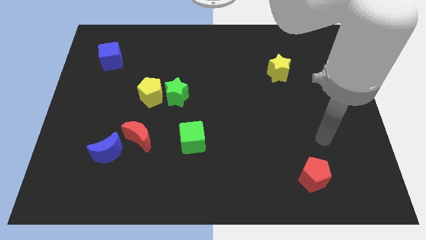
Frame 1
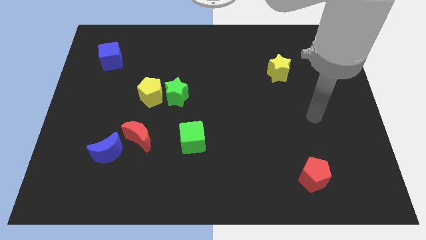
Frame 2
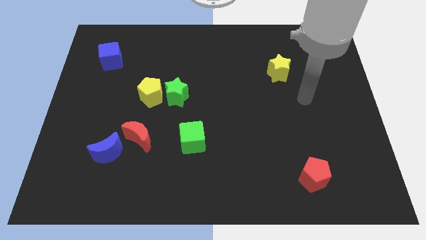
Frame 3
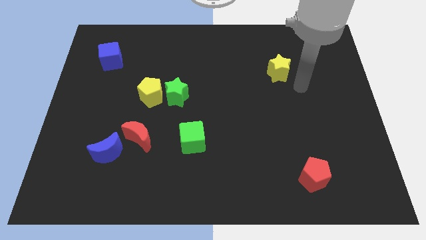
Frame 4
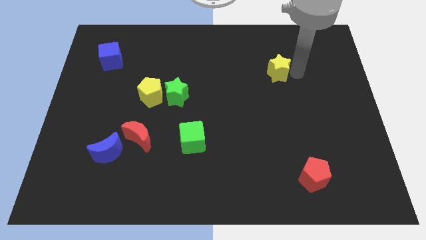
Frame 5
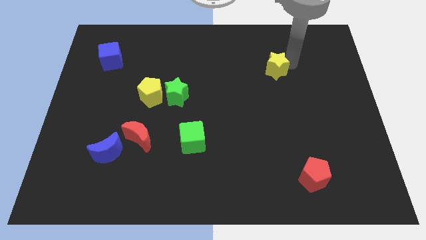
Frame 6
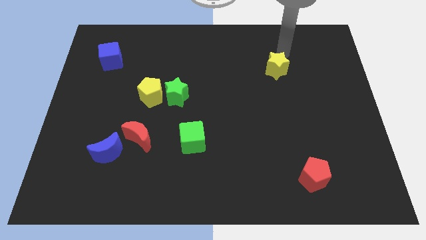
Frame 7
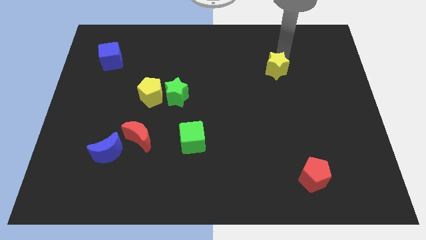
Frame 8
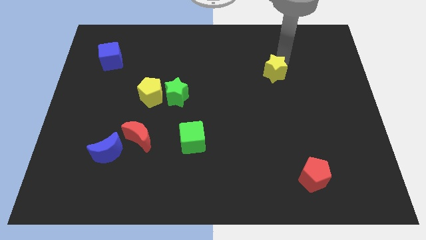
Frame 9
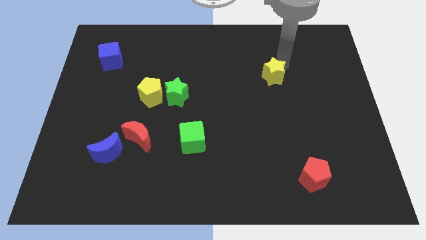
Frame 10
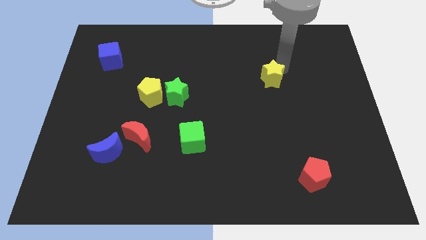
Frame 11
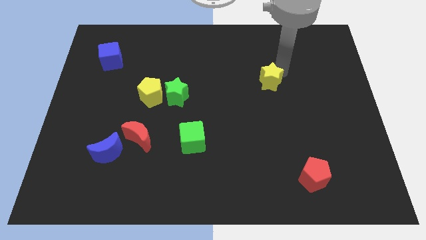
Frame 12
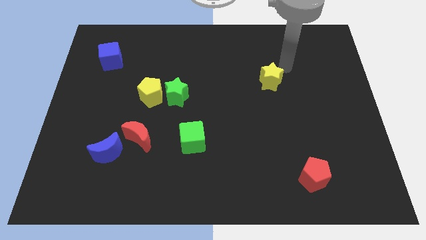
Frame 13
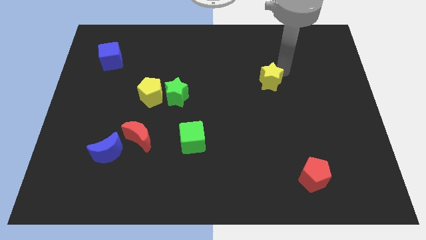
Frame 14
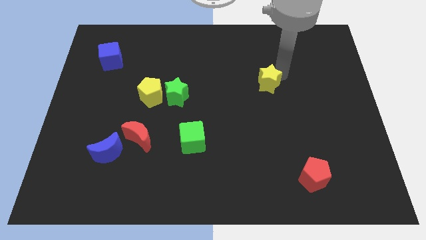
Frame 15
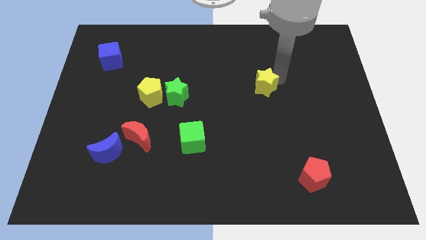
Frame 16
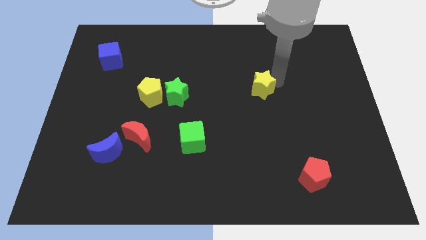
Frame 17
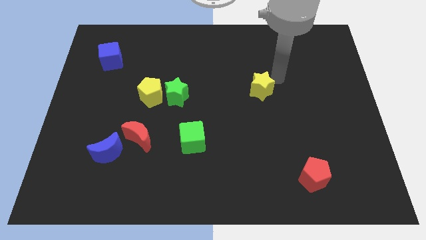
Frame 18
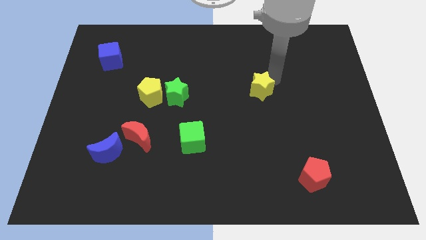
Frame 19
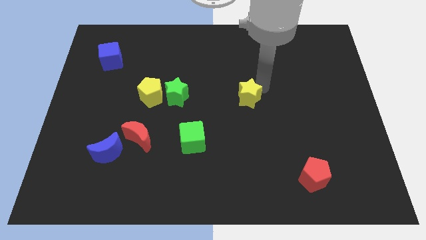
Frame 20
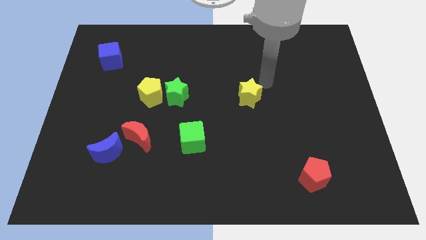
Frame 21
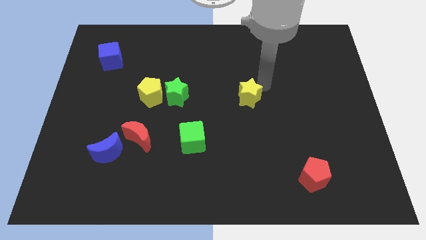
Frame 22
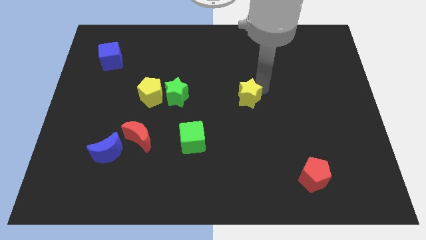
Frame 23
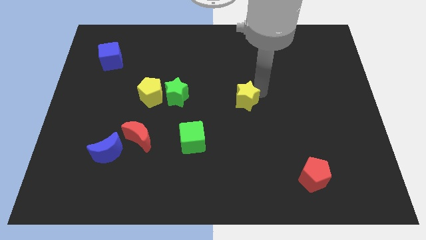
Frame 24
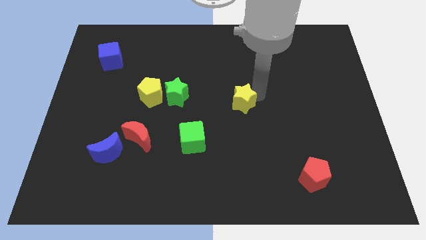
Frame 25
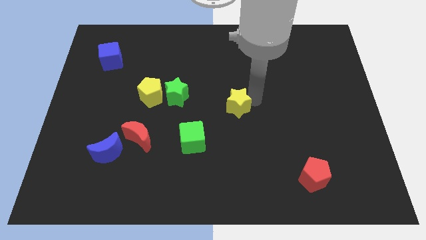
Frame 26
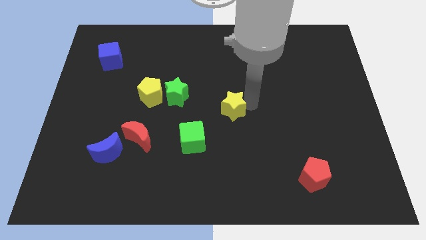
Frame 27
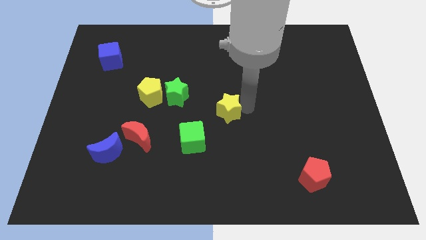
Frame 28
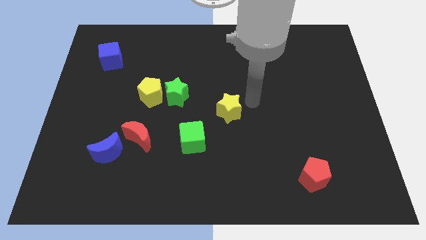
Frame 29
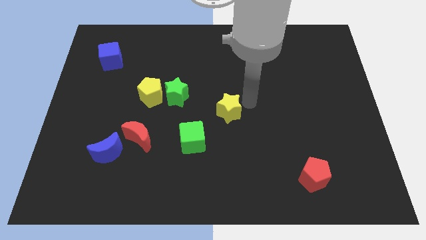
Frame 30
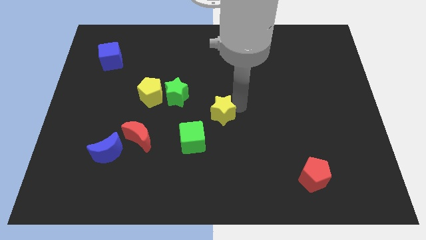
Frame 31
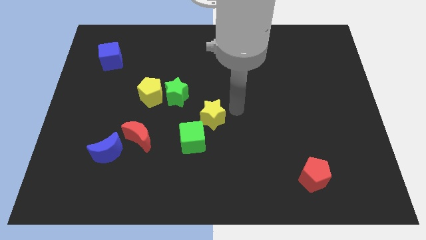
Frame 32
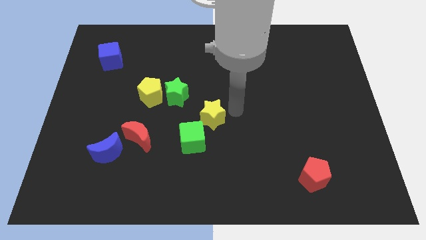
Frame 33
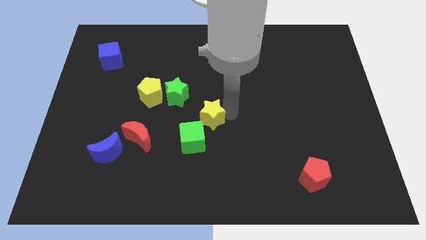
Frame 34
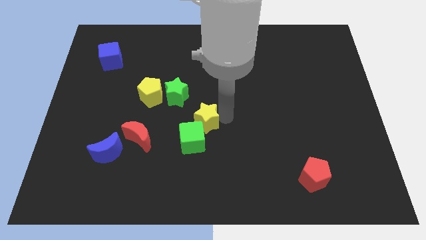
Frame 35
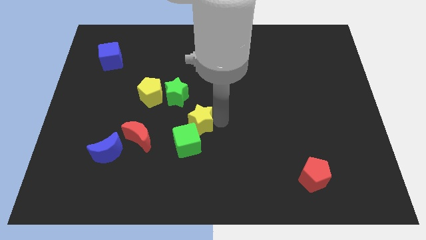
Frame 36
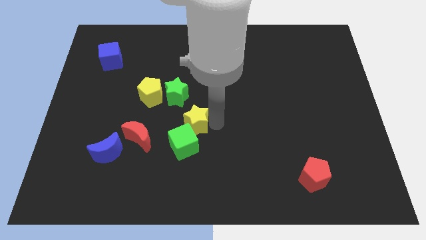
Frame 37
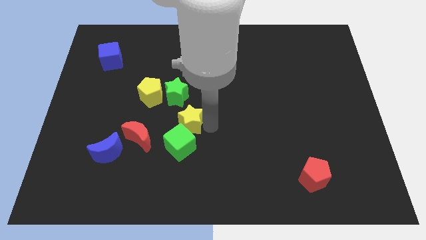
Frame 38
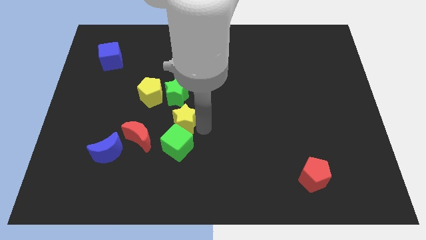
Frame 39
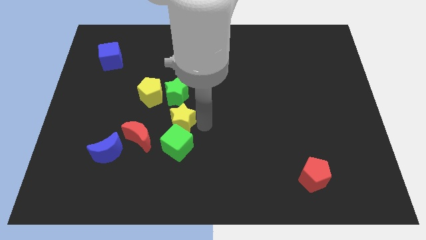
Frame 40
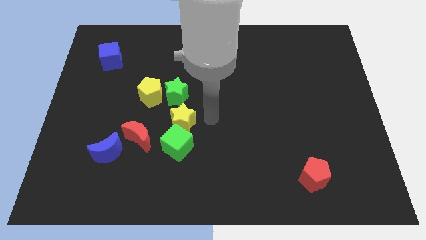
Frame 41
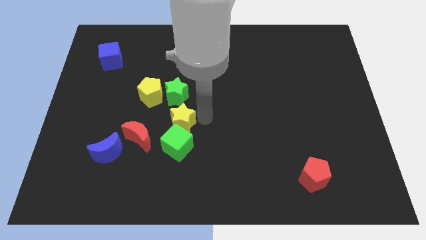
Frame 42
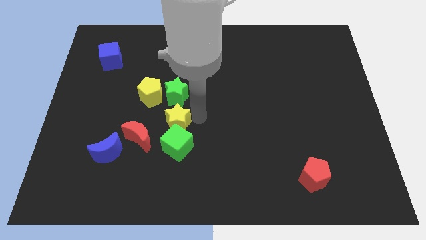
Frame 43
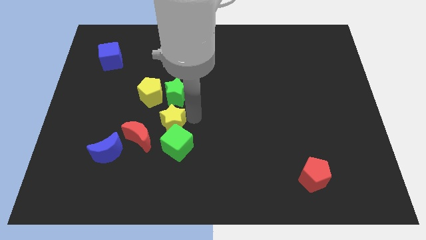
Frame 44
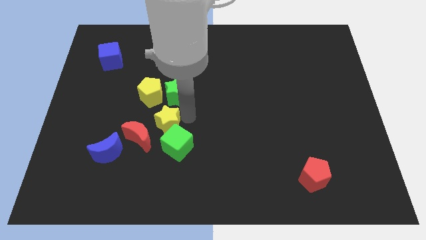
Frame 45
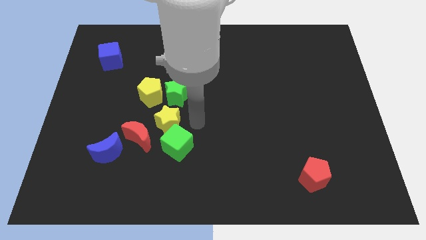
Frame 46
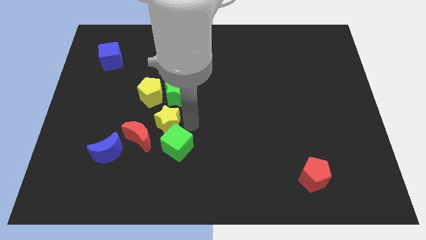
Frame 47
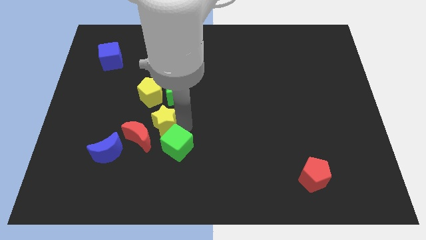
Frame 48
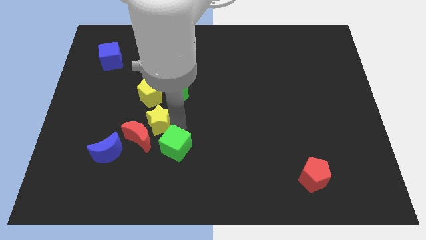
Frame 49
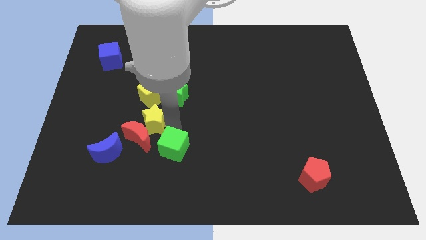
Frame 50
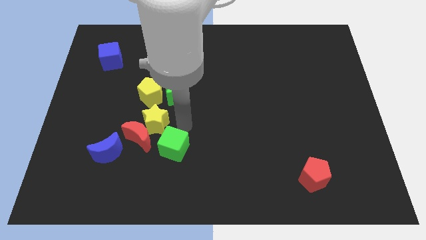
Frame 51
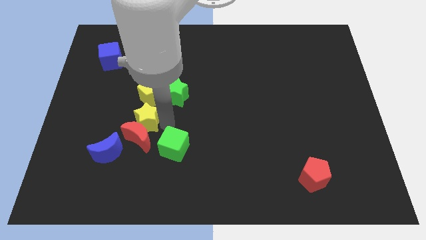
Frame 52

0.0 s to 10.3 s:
put the yellow star to the top left side of the red moon

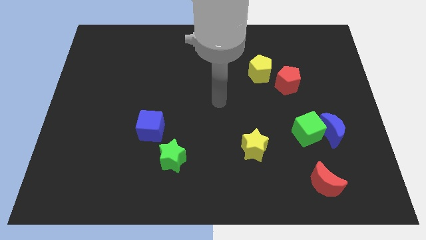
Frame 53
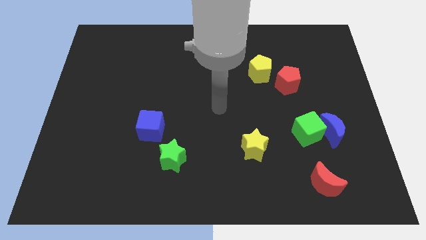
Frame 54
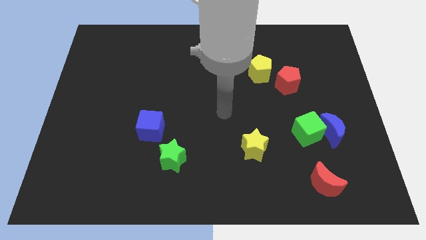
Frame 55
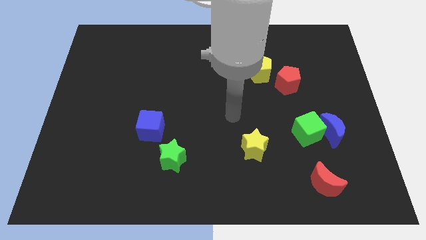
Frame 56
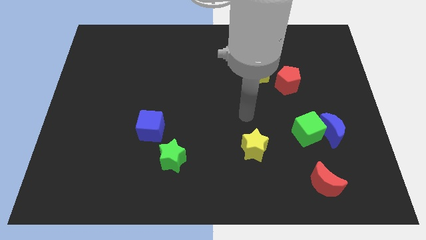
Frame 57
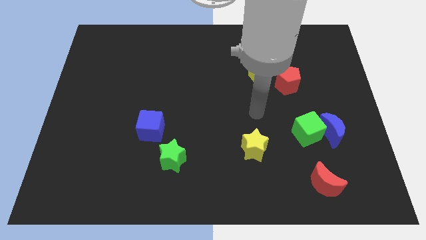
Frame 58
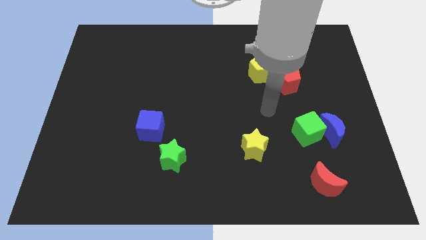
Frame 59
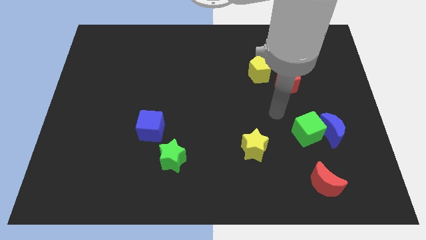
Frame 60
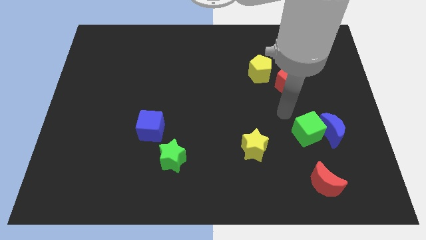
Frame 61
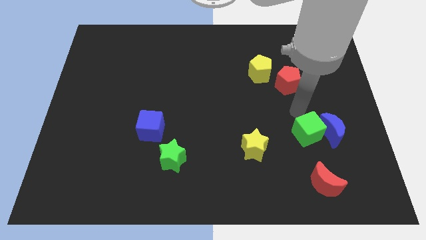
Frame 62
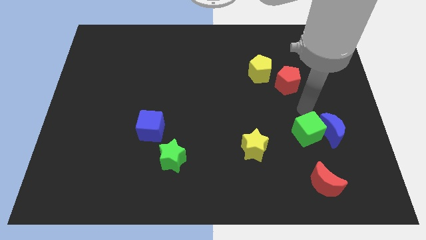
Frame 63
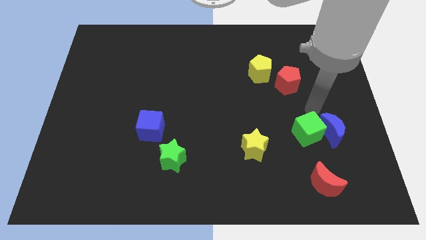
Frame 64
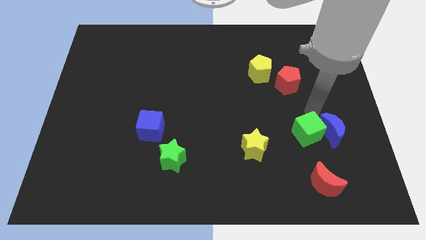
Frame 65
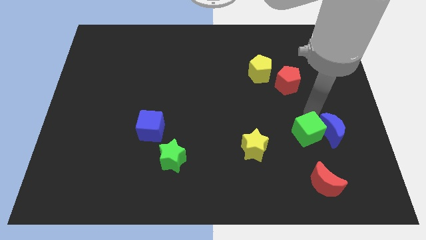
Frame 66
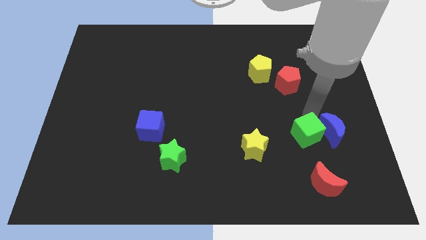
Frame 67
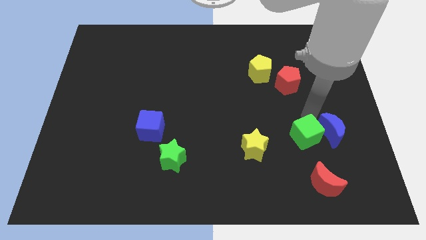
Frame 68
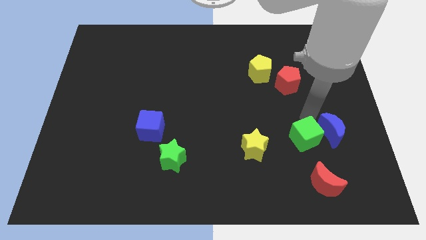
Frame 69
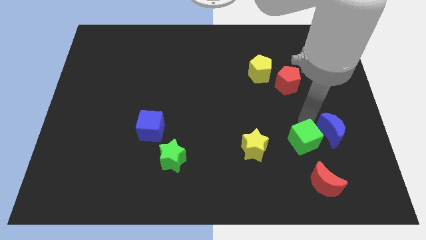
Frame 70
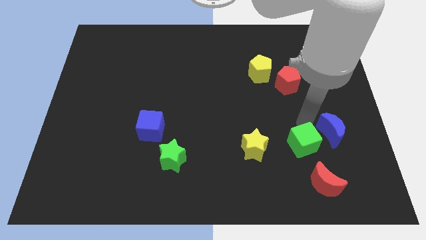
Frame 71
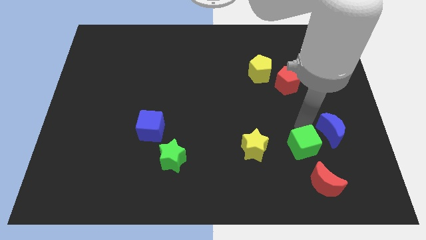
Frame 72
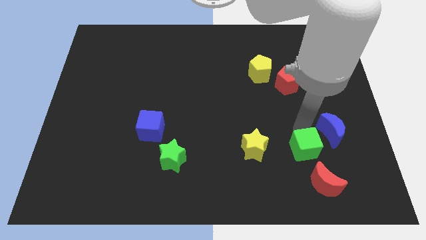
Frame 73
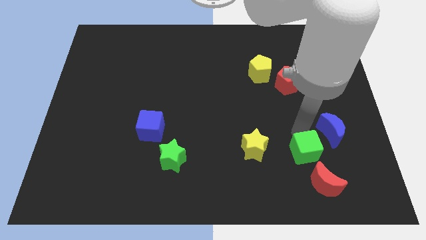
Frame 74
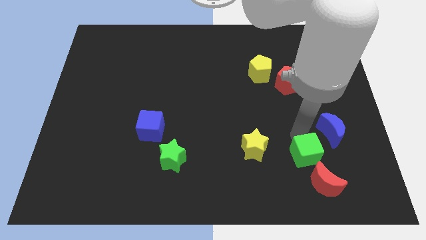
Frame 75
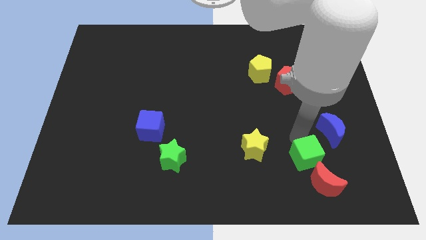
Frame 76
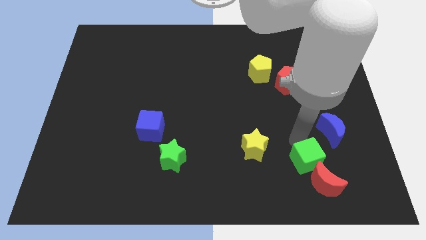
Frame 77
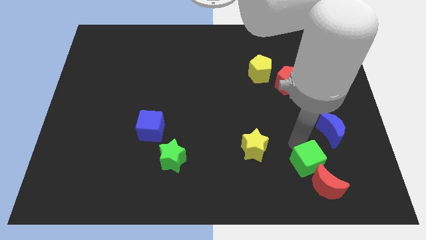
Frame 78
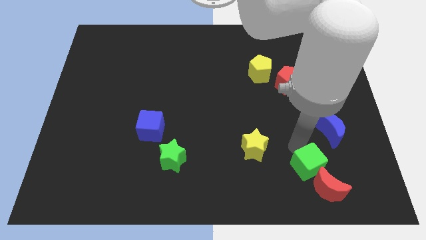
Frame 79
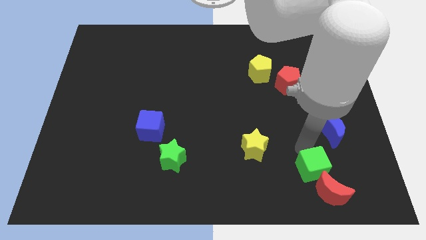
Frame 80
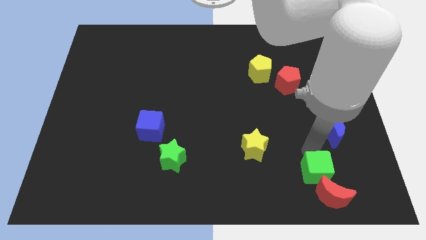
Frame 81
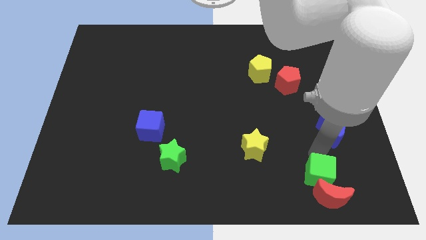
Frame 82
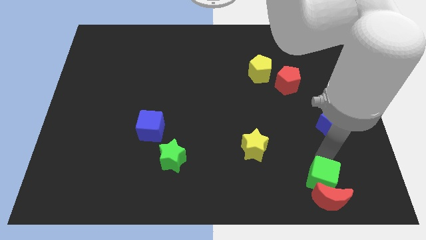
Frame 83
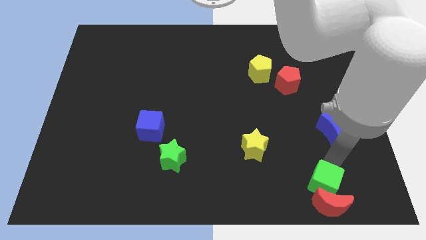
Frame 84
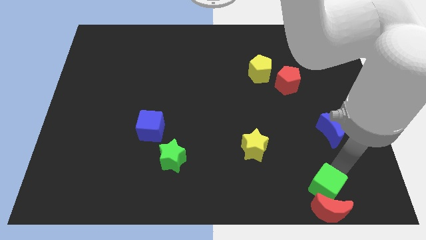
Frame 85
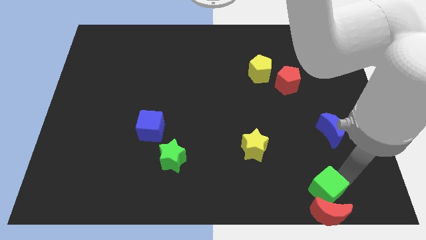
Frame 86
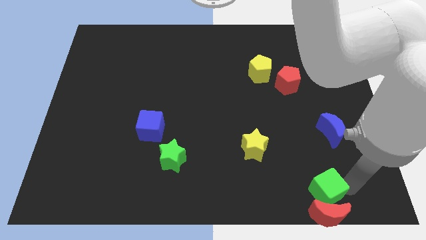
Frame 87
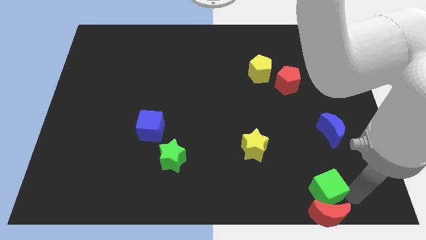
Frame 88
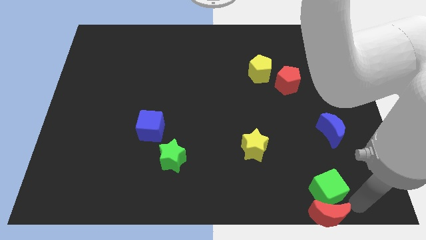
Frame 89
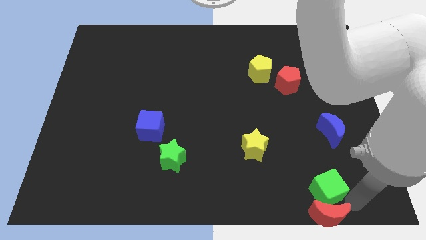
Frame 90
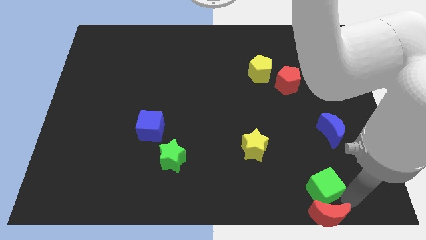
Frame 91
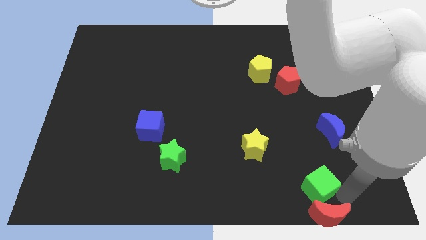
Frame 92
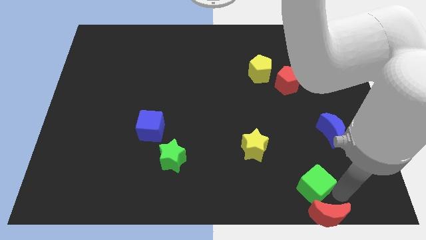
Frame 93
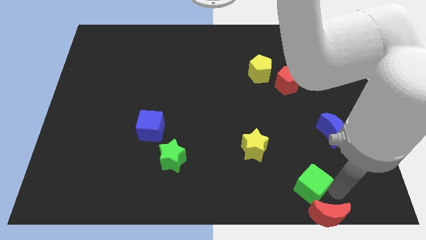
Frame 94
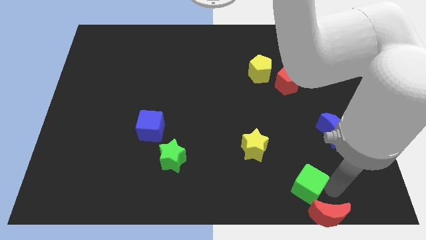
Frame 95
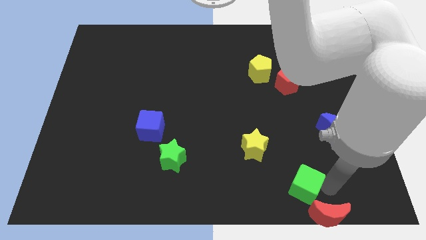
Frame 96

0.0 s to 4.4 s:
slide the green cube diagonally down and to the right of the yellow star
